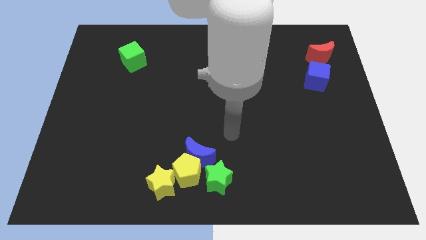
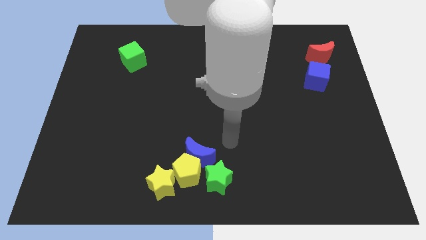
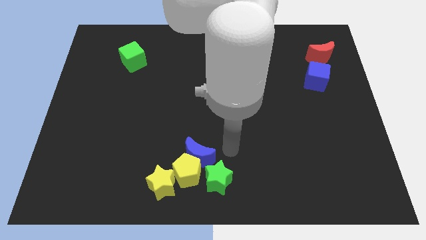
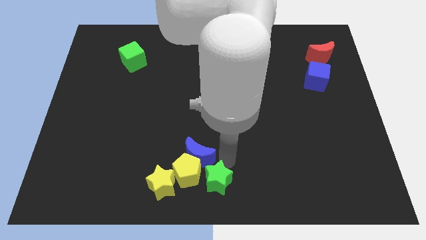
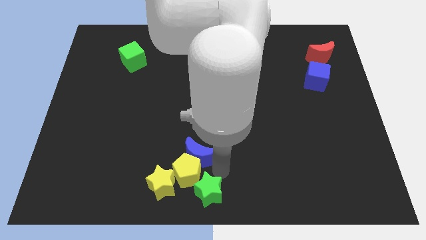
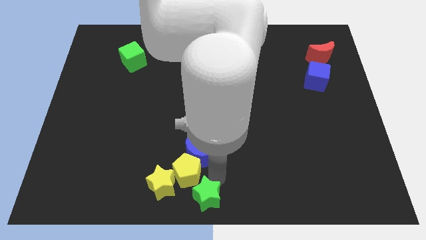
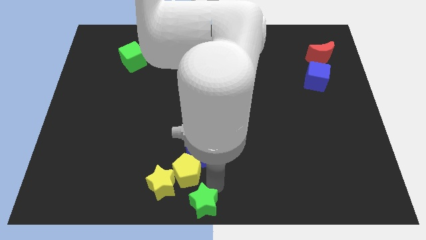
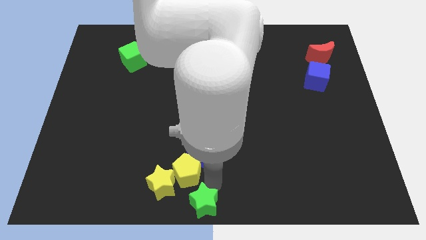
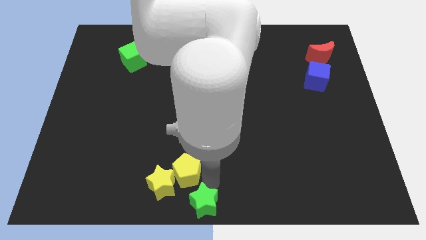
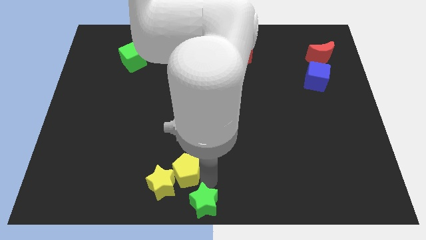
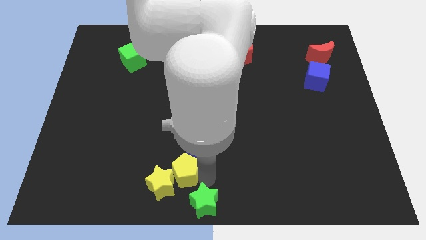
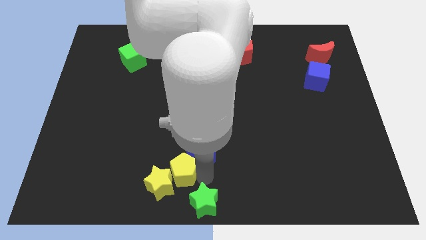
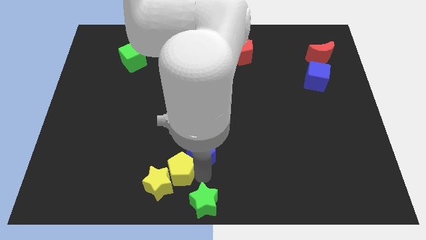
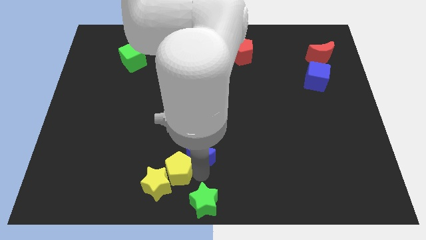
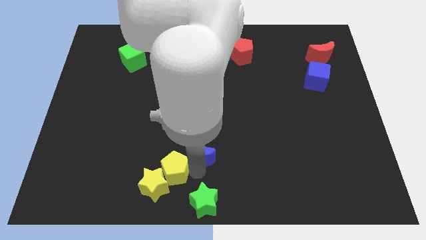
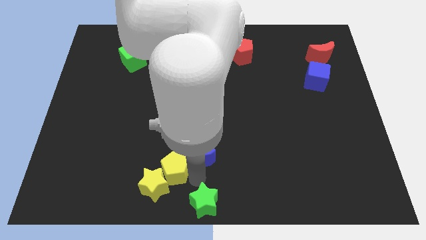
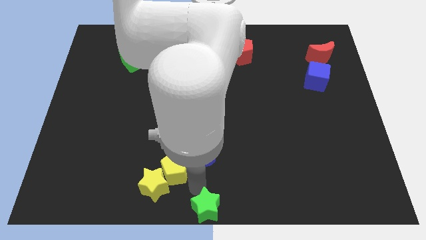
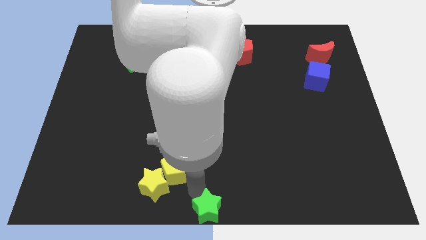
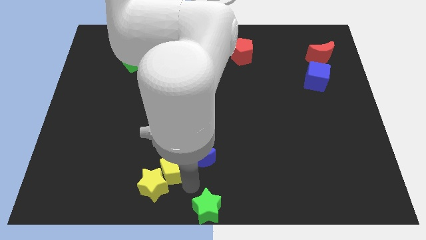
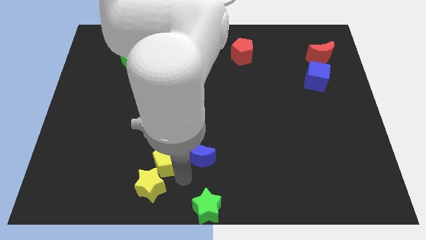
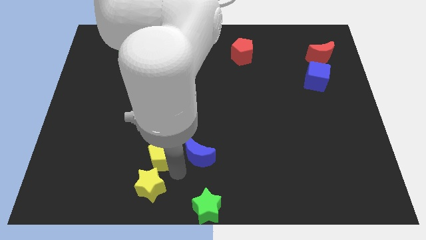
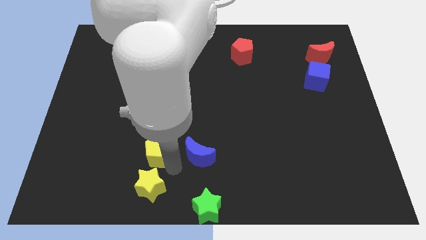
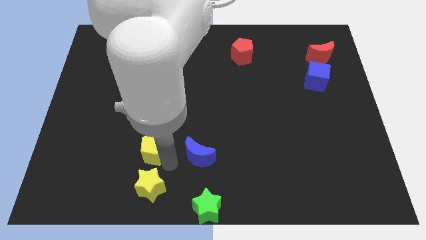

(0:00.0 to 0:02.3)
separate the yellow pentagon from the group

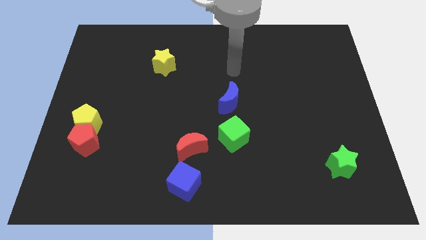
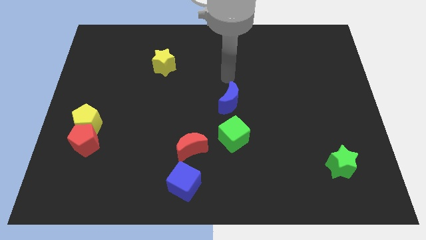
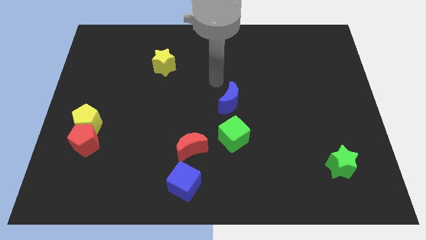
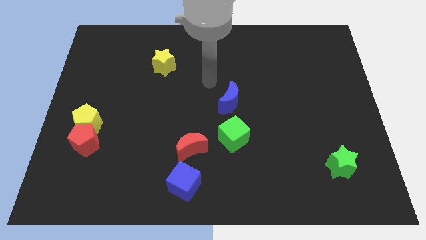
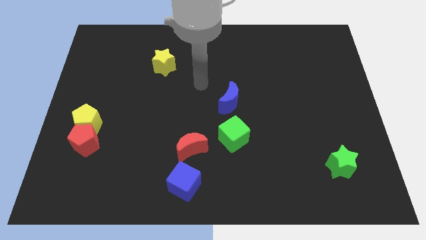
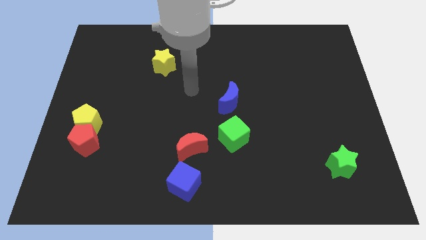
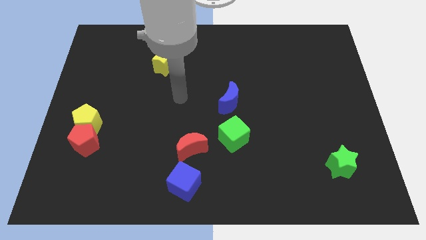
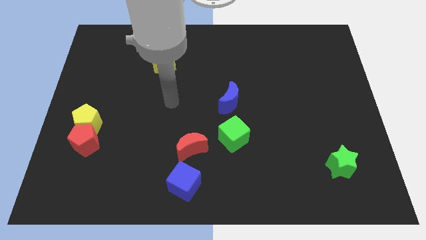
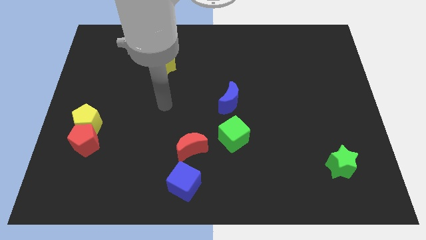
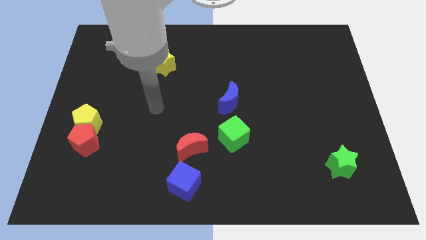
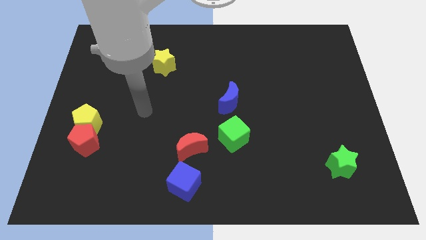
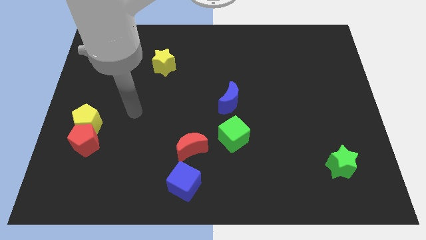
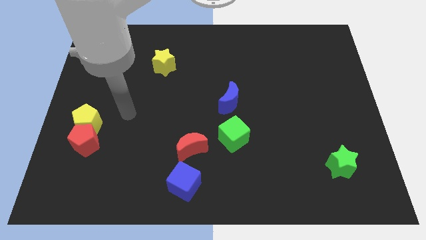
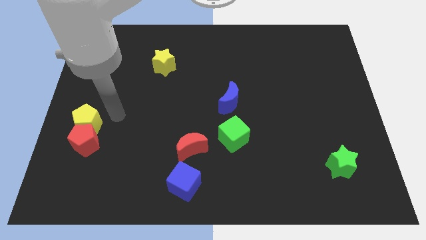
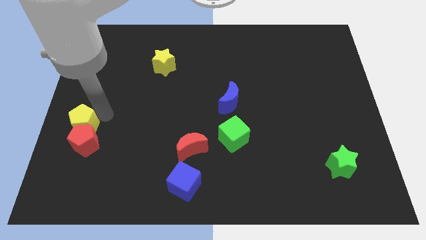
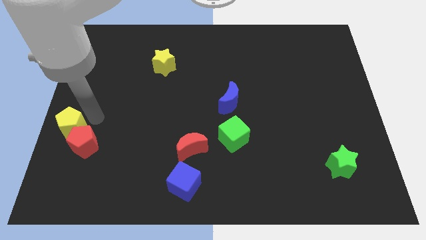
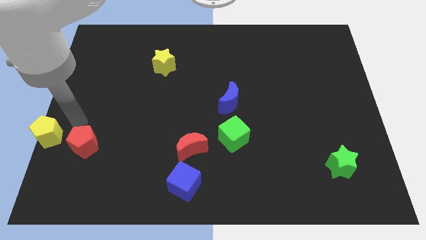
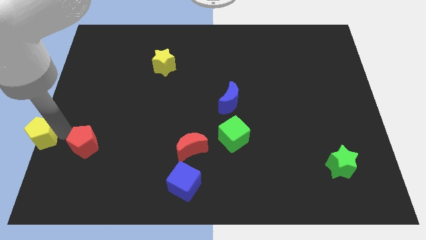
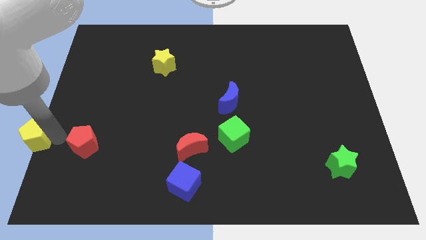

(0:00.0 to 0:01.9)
separate the red pentagon from the yellow pentagon

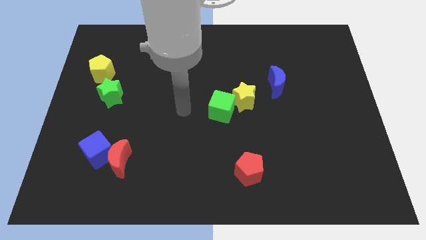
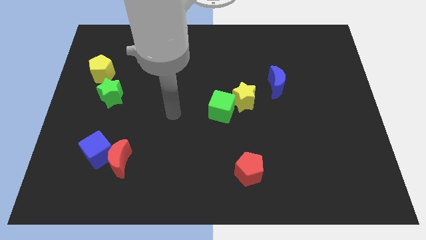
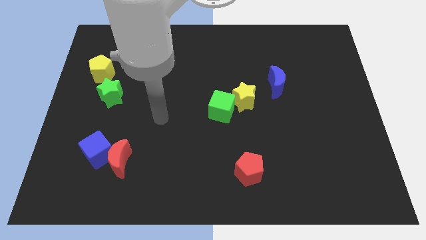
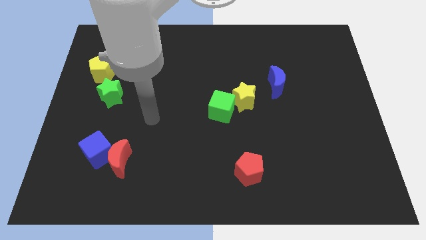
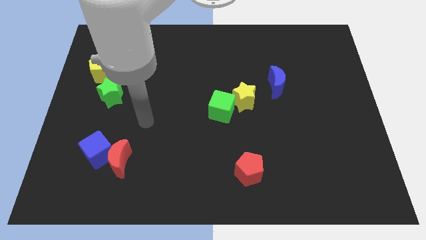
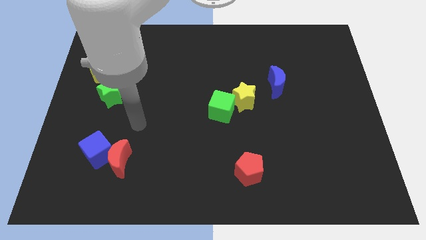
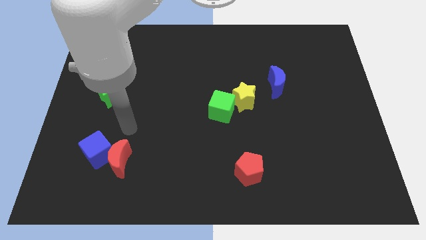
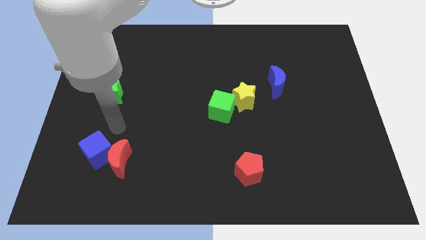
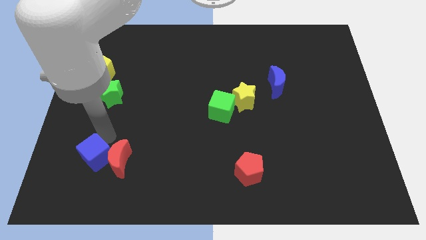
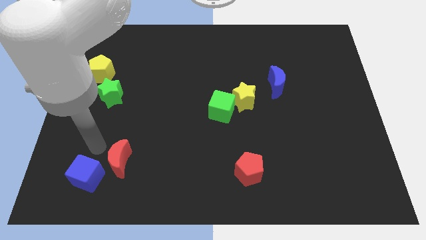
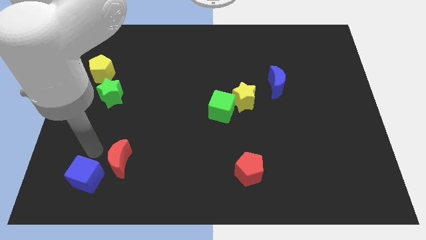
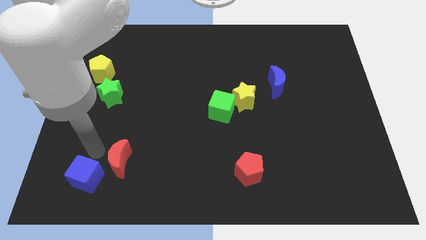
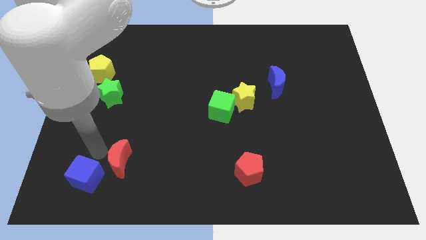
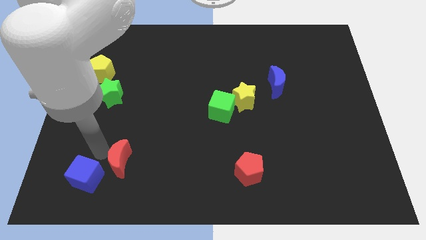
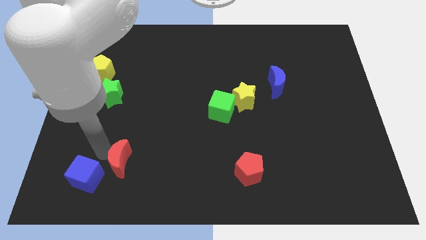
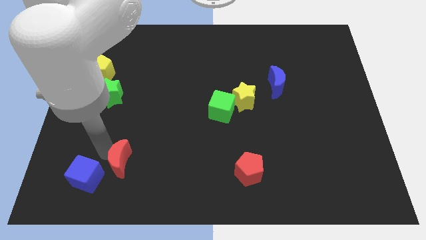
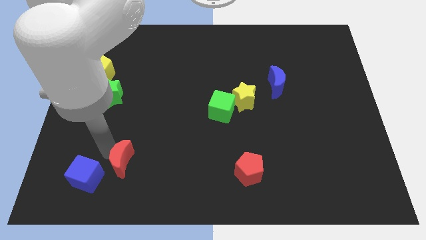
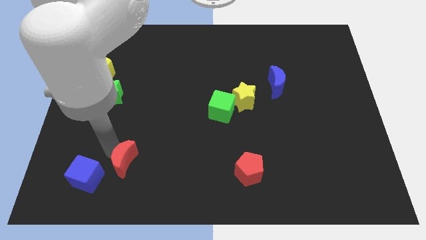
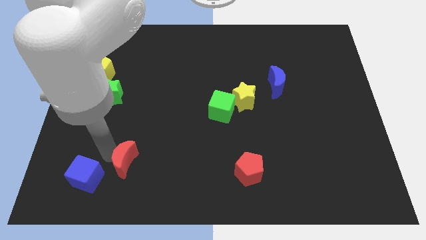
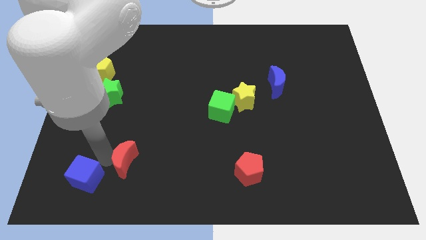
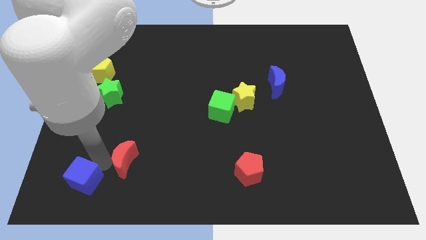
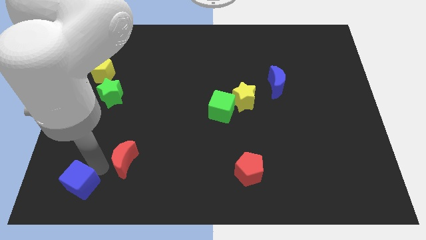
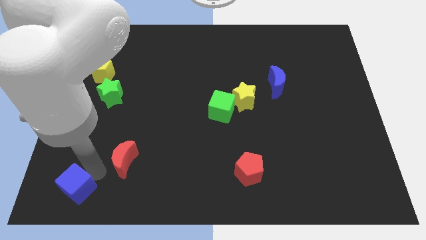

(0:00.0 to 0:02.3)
pull the red moon apart from the blue cube

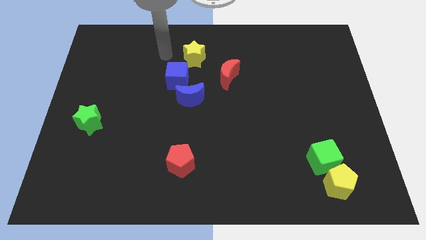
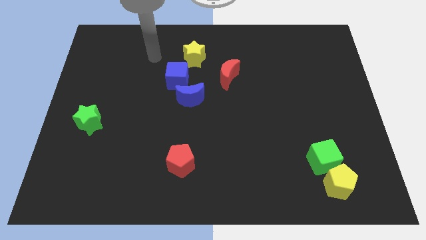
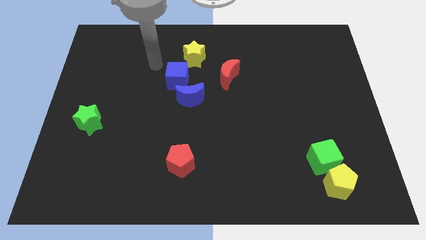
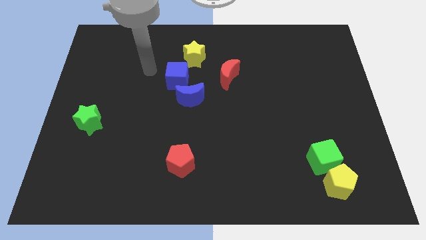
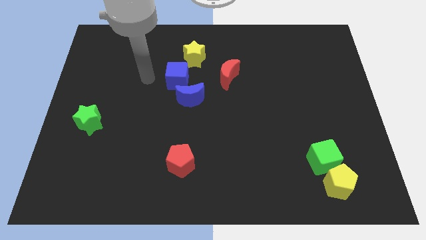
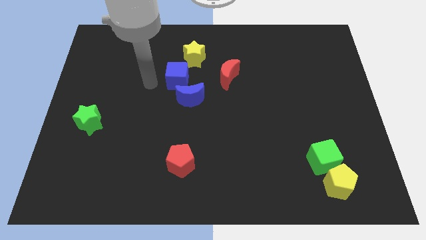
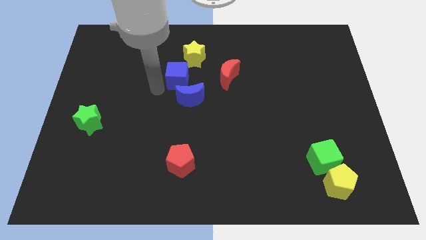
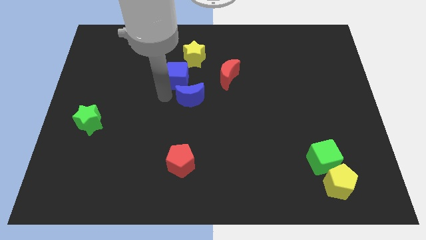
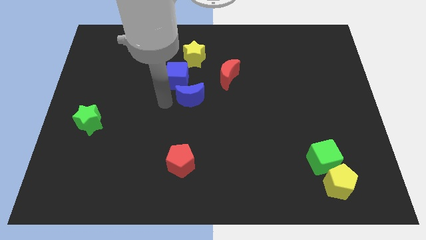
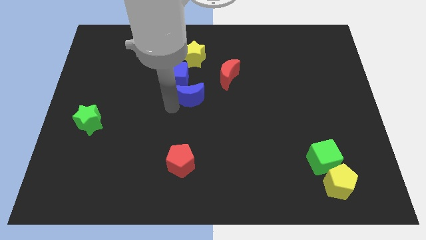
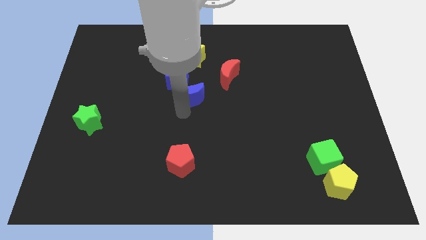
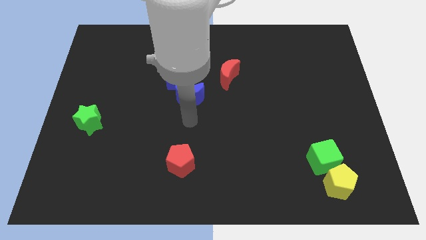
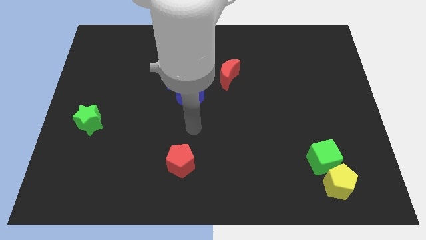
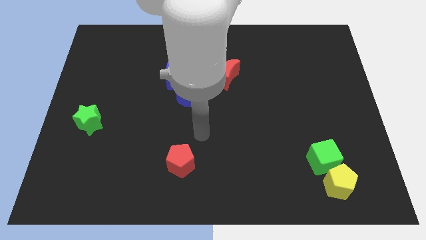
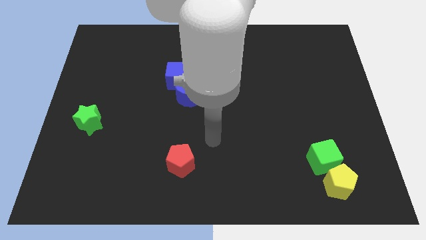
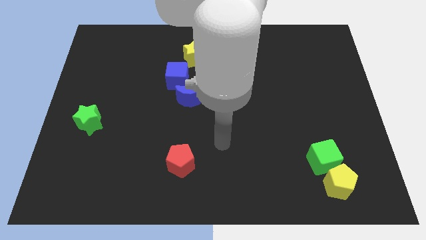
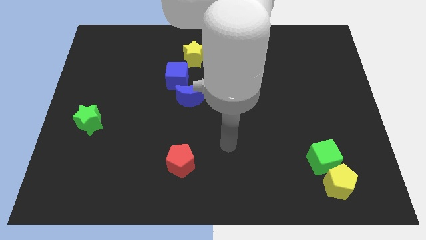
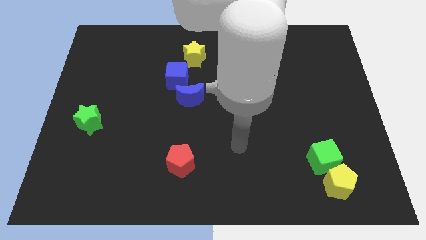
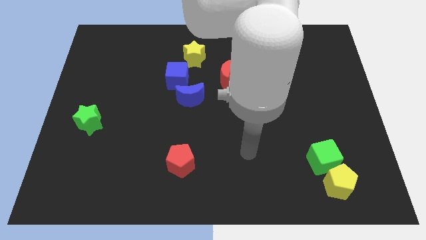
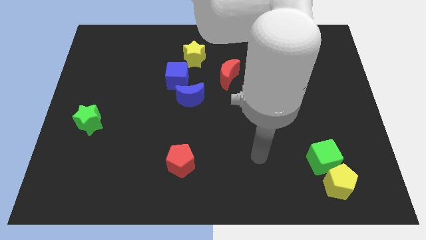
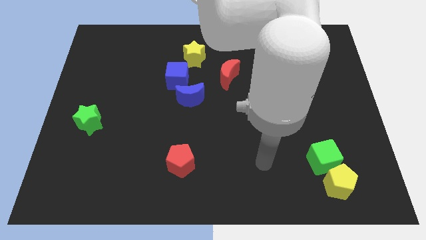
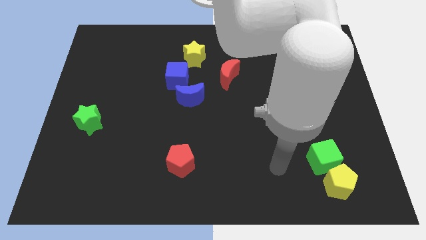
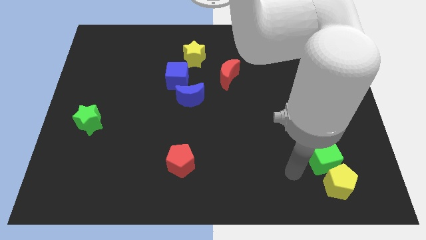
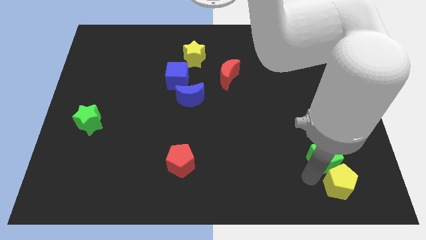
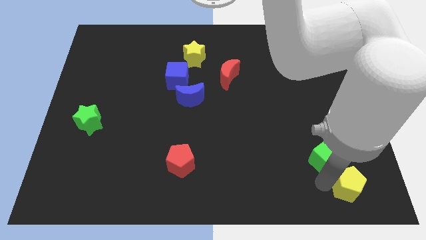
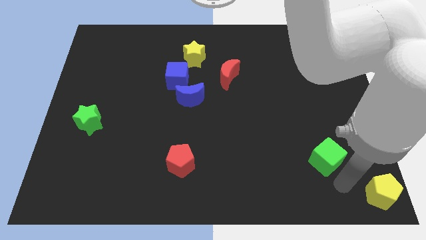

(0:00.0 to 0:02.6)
separate the green cube from the yellow pentagon

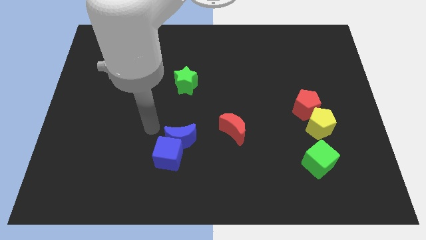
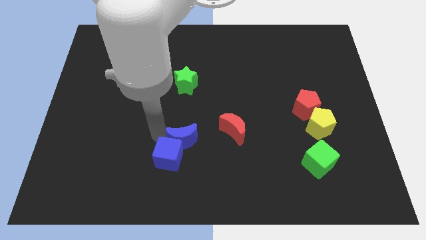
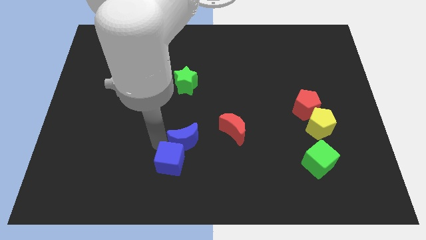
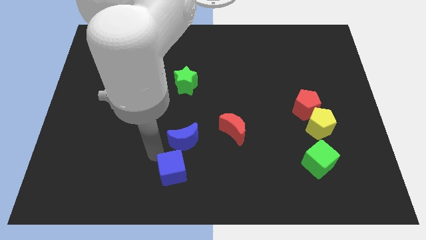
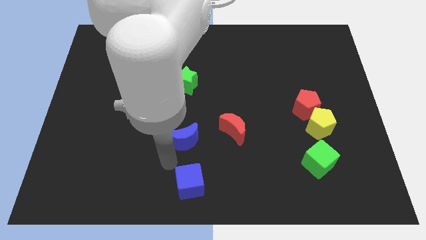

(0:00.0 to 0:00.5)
move the blue moon away from the blue cube
